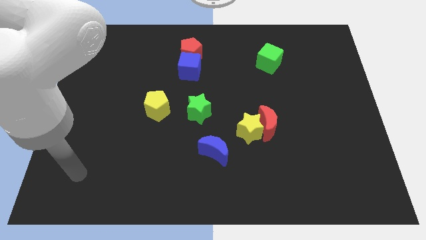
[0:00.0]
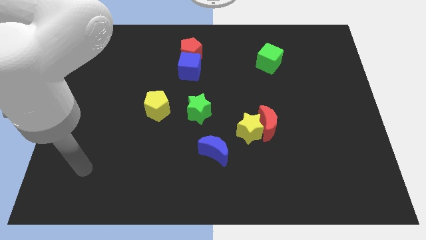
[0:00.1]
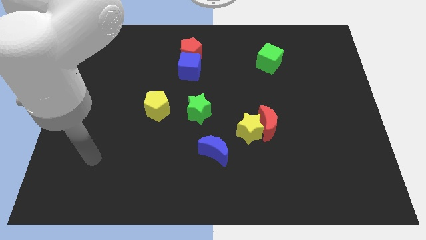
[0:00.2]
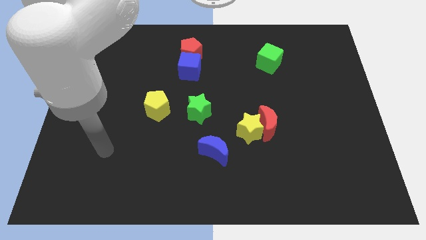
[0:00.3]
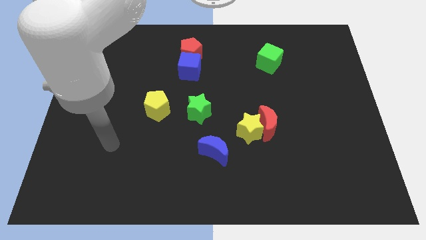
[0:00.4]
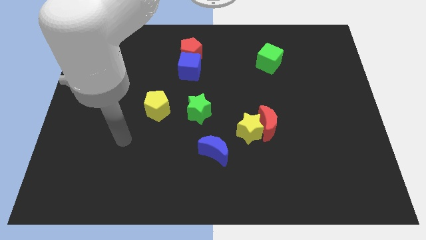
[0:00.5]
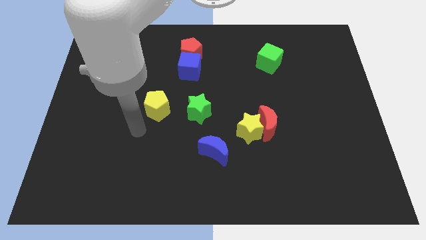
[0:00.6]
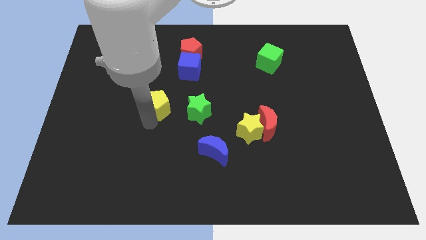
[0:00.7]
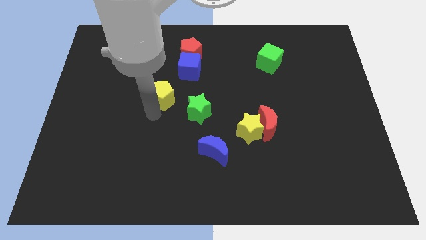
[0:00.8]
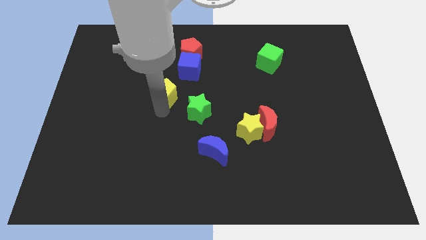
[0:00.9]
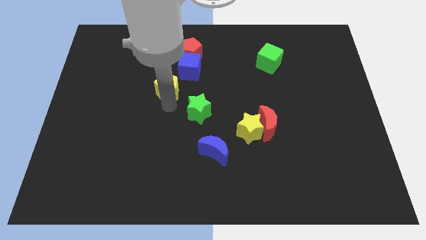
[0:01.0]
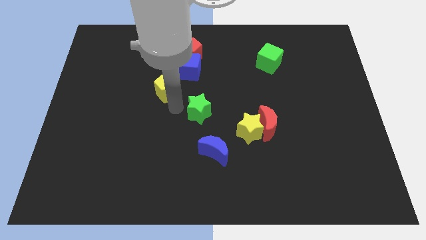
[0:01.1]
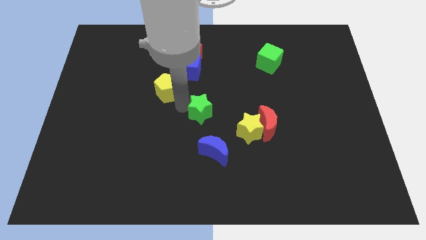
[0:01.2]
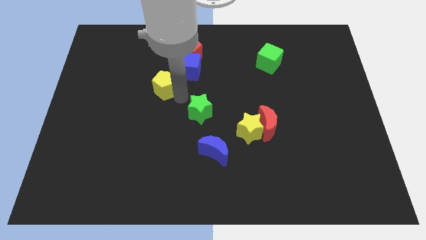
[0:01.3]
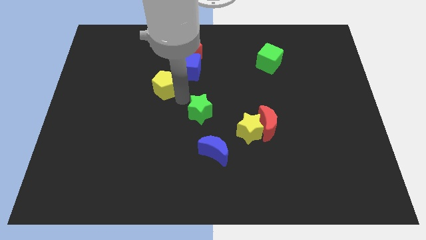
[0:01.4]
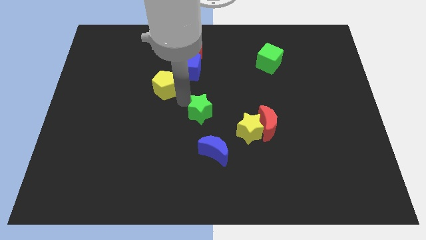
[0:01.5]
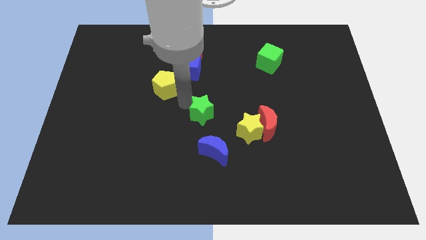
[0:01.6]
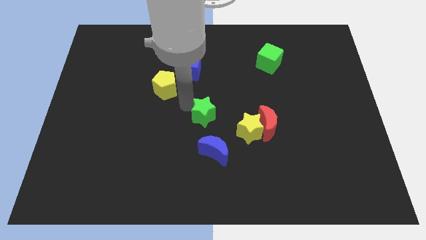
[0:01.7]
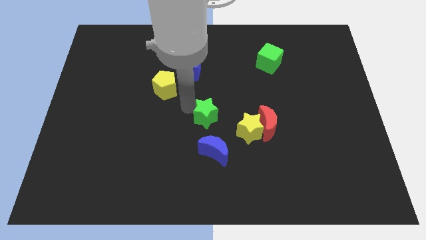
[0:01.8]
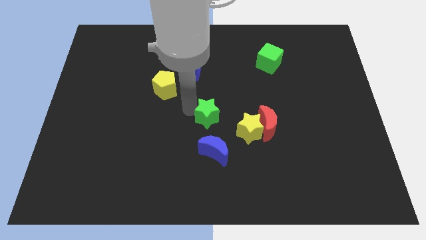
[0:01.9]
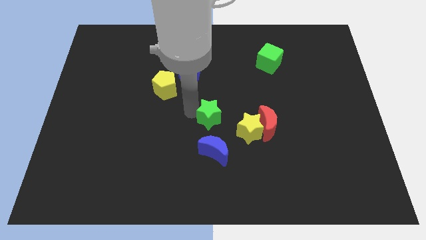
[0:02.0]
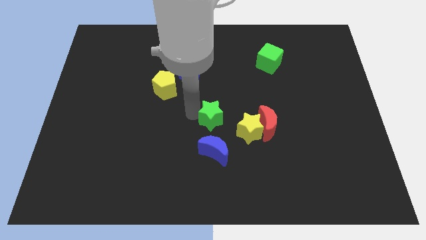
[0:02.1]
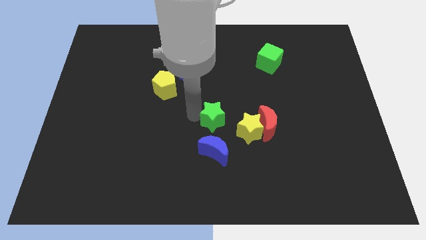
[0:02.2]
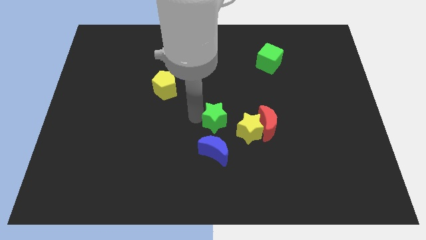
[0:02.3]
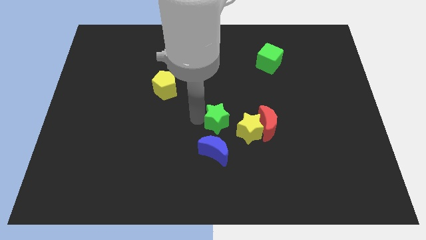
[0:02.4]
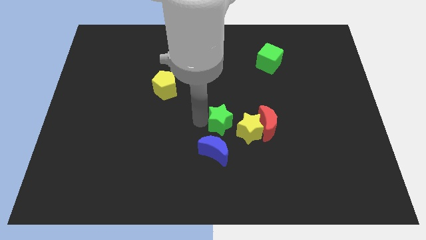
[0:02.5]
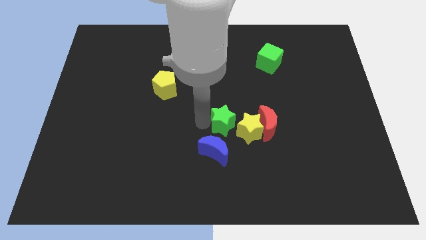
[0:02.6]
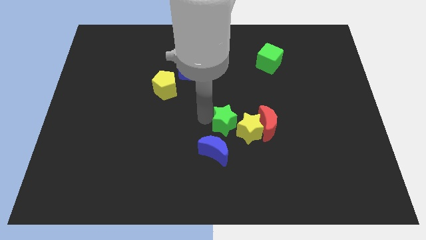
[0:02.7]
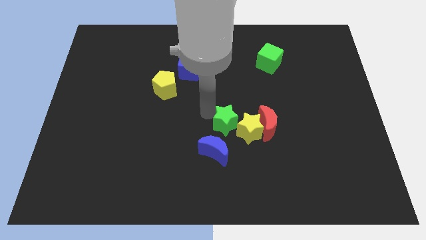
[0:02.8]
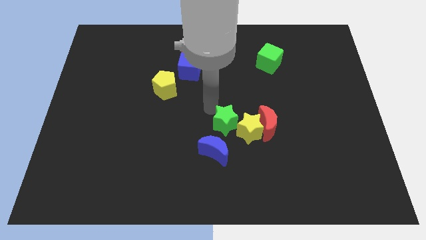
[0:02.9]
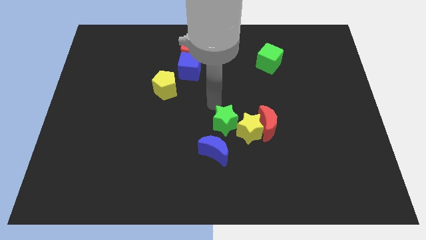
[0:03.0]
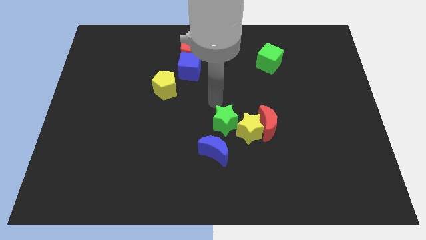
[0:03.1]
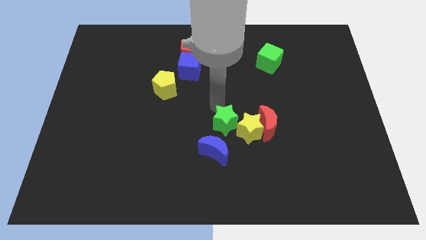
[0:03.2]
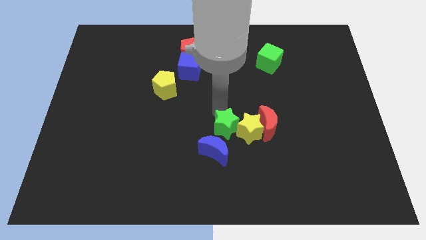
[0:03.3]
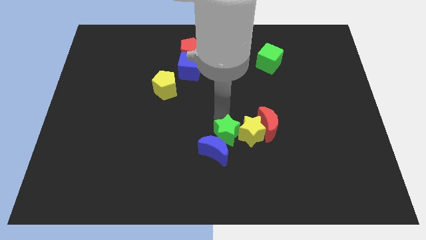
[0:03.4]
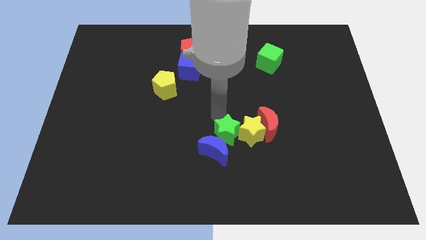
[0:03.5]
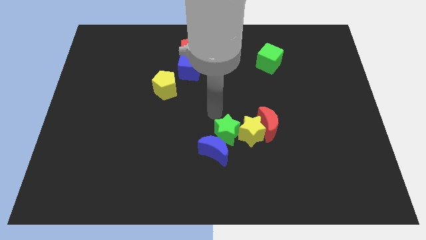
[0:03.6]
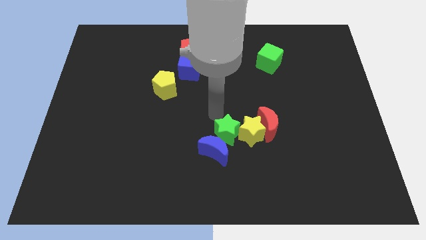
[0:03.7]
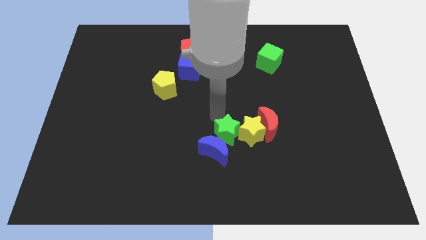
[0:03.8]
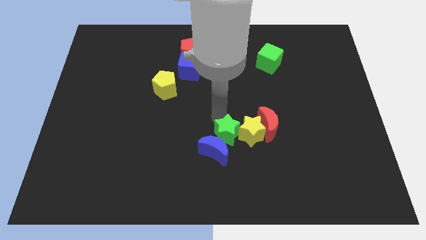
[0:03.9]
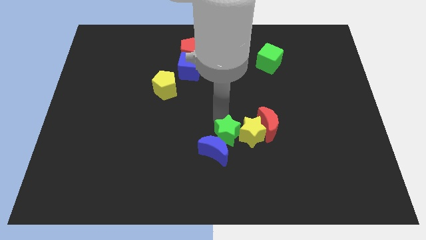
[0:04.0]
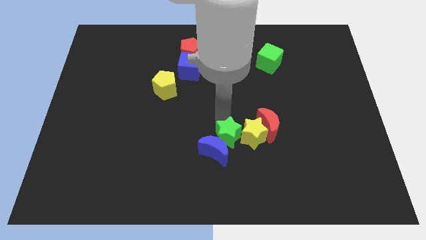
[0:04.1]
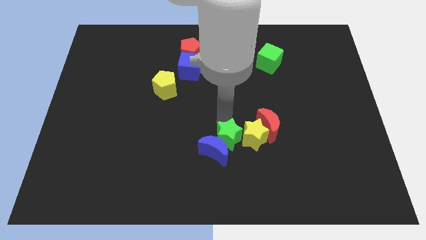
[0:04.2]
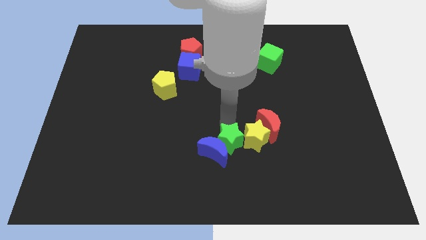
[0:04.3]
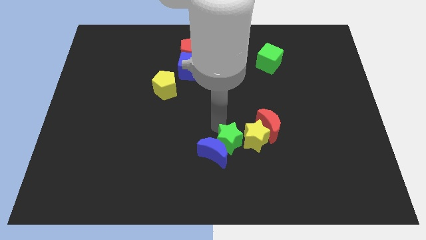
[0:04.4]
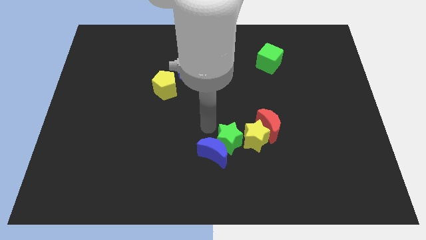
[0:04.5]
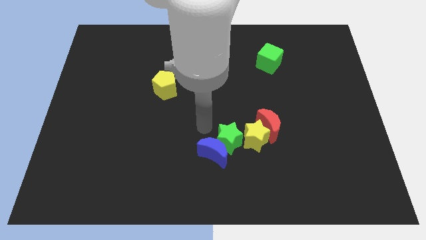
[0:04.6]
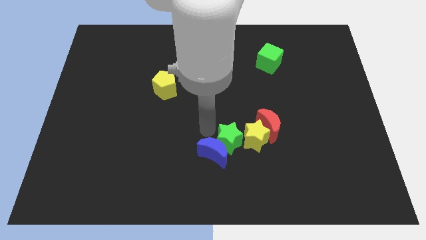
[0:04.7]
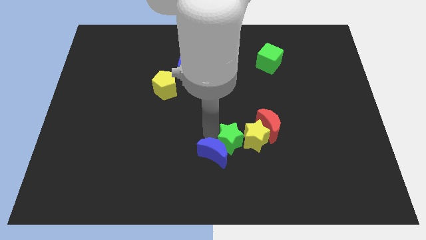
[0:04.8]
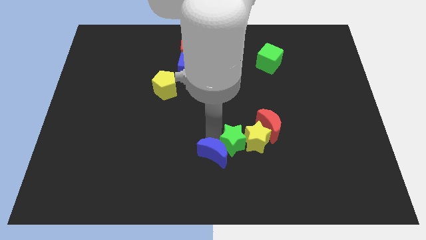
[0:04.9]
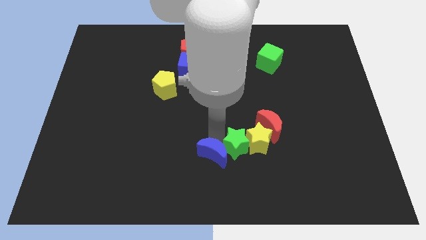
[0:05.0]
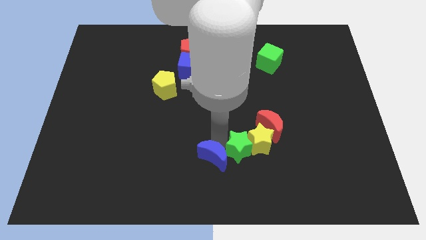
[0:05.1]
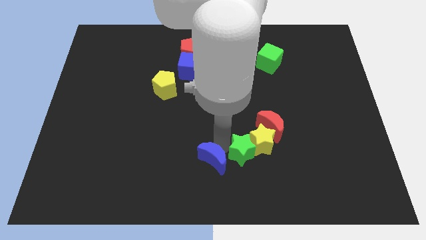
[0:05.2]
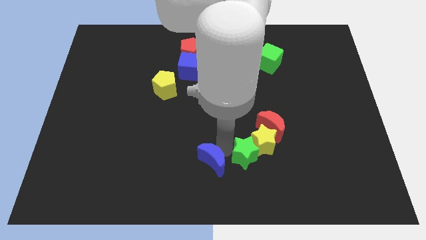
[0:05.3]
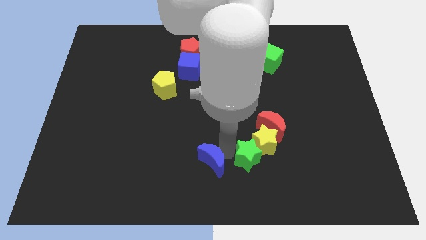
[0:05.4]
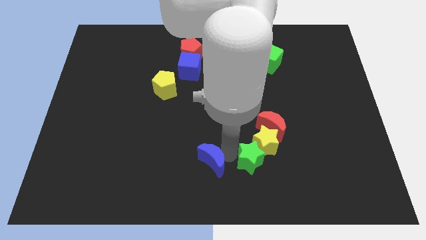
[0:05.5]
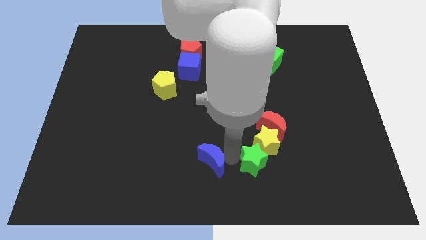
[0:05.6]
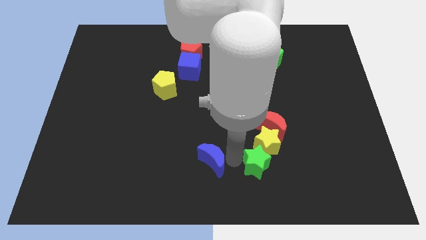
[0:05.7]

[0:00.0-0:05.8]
slide the green star to the bottom of the red moon

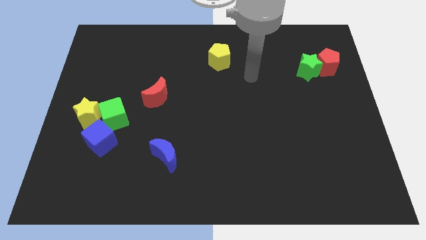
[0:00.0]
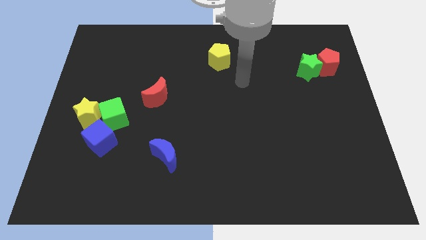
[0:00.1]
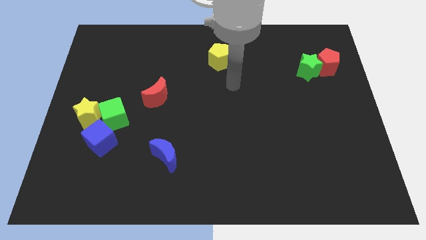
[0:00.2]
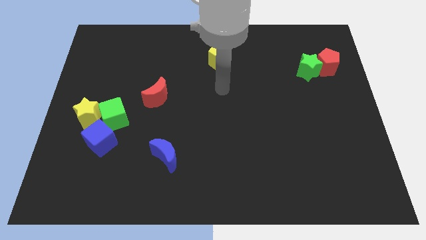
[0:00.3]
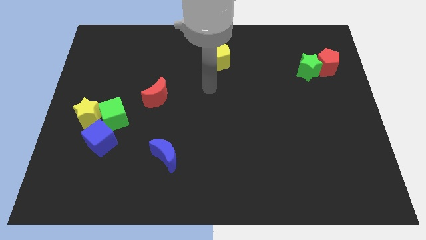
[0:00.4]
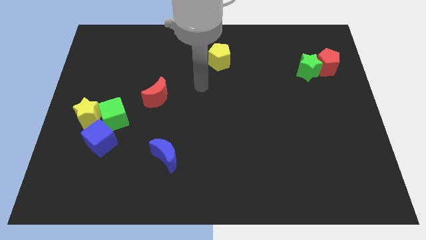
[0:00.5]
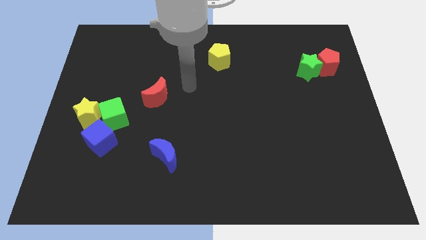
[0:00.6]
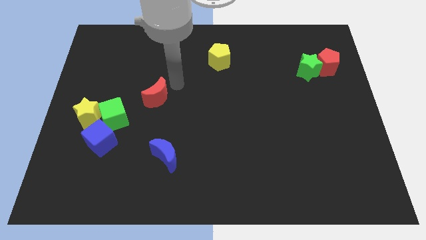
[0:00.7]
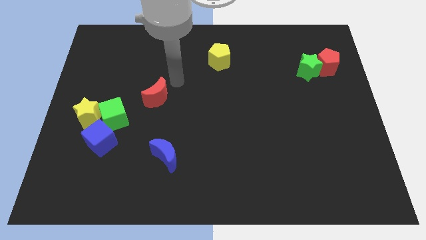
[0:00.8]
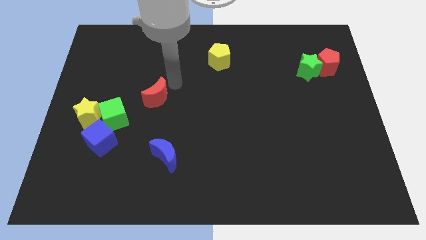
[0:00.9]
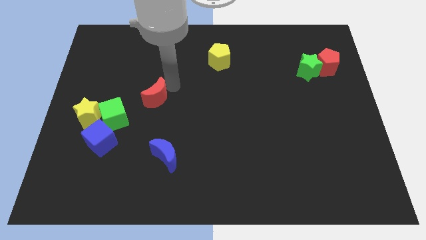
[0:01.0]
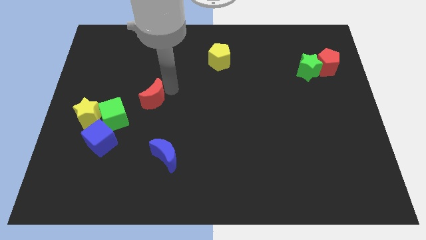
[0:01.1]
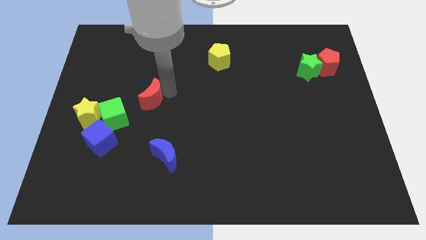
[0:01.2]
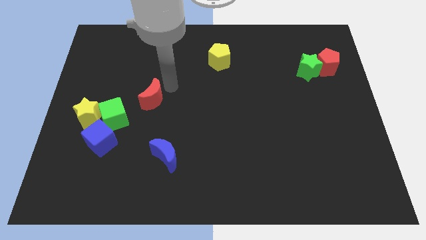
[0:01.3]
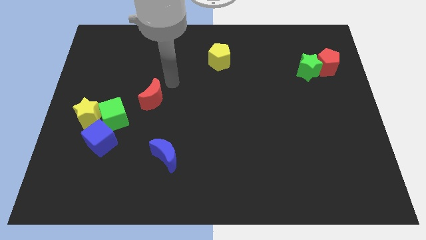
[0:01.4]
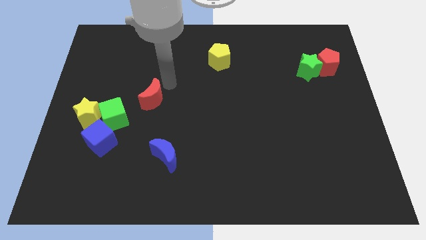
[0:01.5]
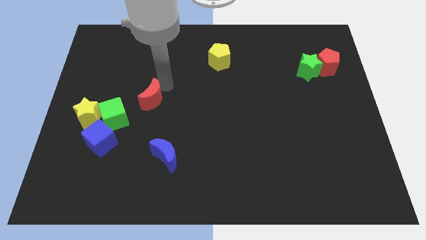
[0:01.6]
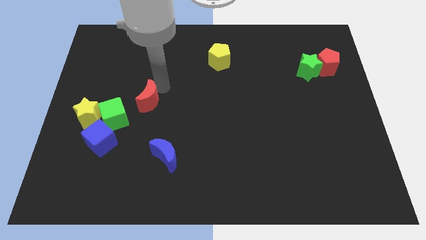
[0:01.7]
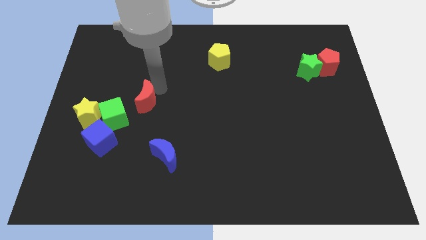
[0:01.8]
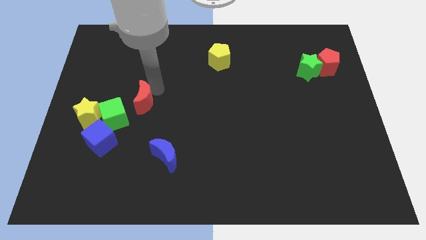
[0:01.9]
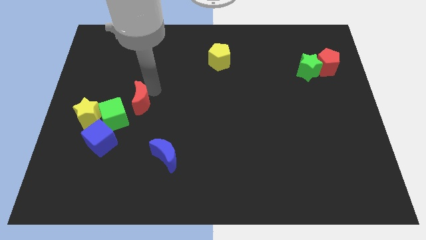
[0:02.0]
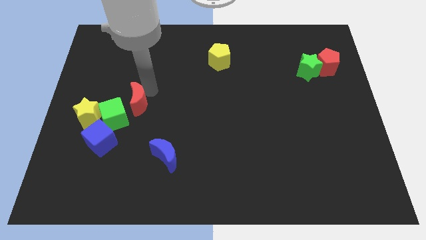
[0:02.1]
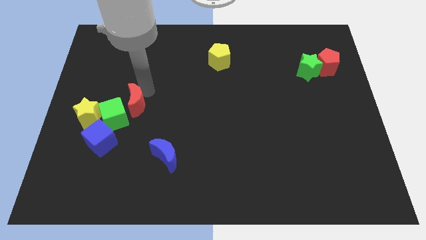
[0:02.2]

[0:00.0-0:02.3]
move the red moon to the top right of the blue cube

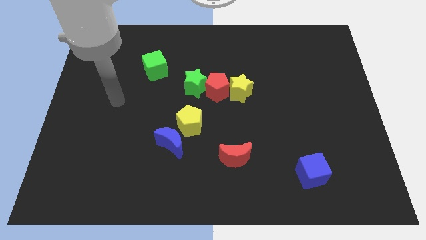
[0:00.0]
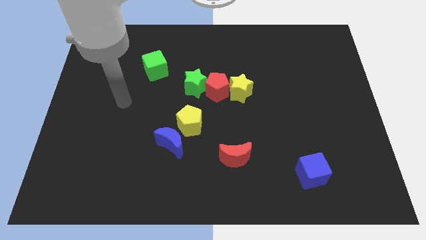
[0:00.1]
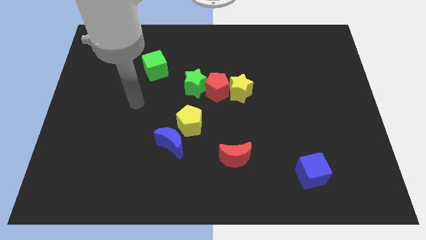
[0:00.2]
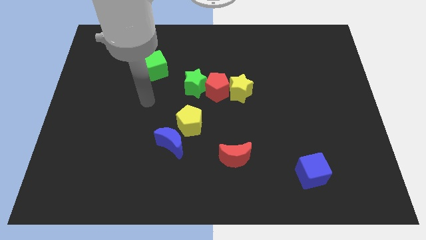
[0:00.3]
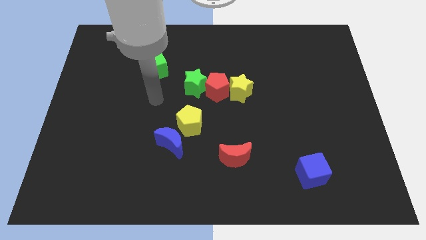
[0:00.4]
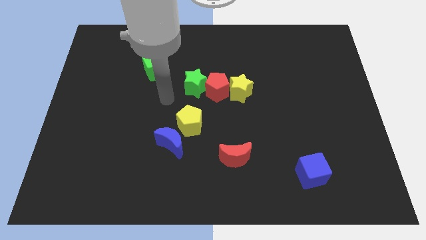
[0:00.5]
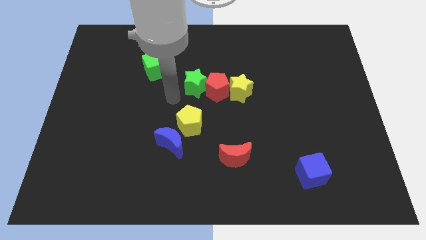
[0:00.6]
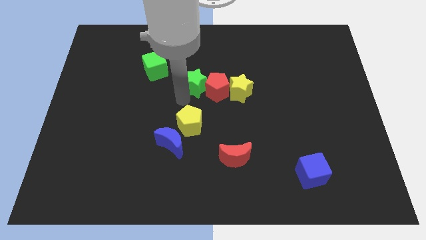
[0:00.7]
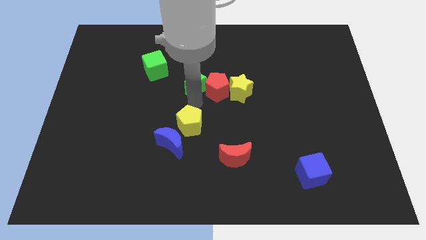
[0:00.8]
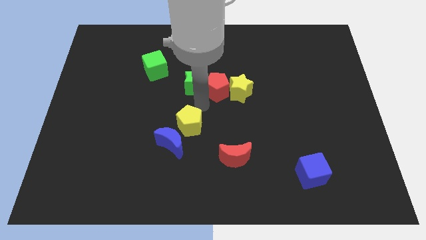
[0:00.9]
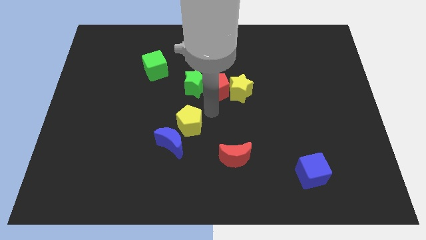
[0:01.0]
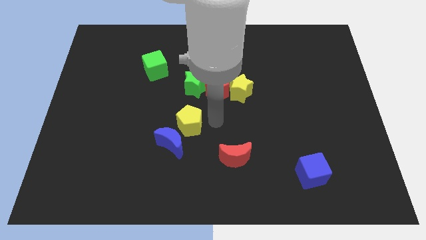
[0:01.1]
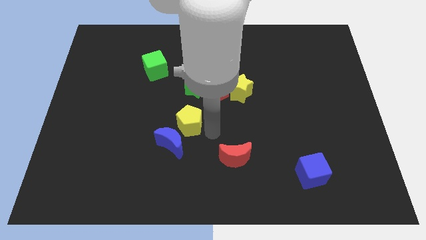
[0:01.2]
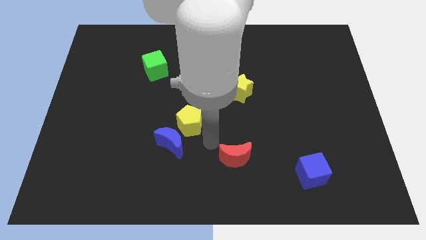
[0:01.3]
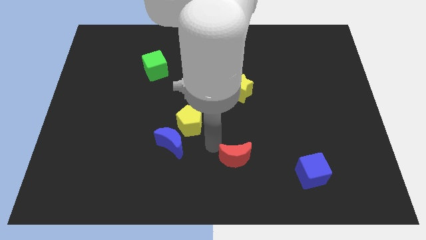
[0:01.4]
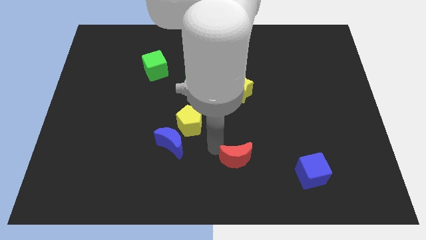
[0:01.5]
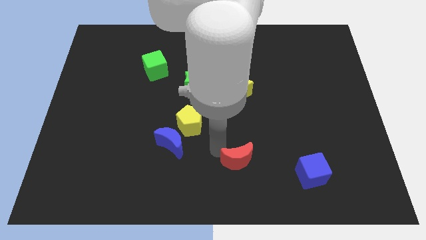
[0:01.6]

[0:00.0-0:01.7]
move the red moon just left of the blue cube
